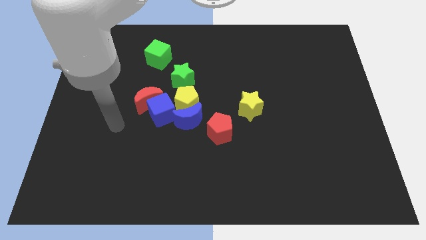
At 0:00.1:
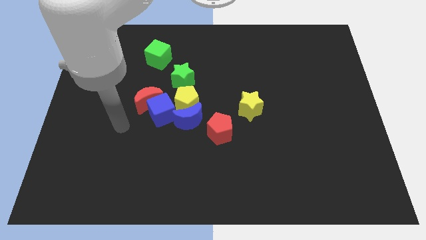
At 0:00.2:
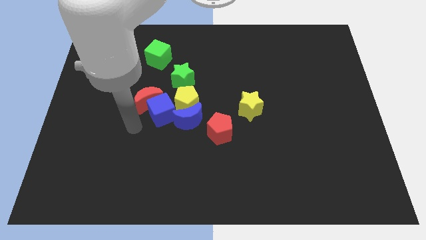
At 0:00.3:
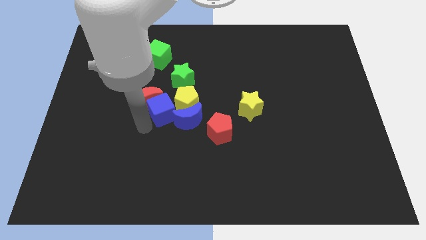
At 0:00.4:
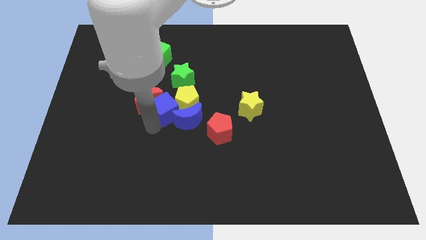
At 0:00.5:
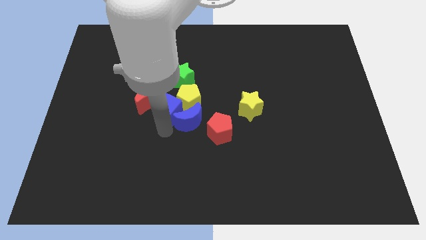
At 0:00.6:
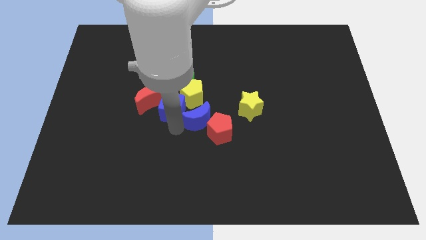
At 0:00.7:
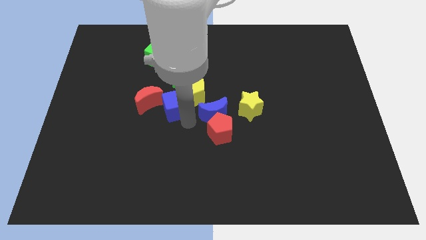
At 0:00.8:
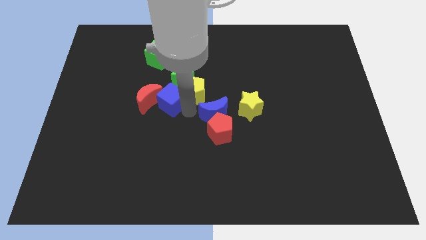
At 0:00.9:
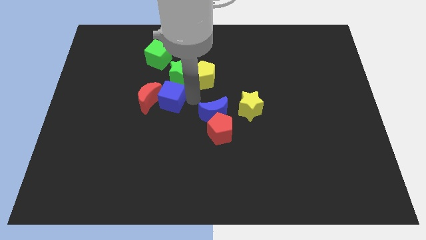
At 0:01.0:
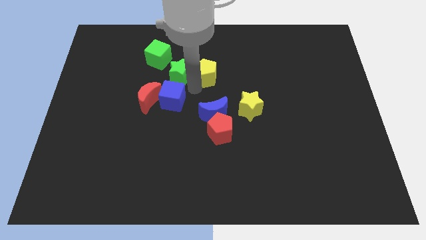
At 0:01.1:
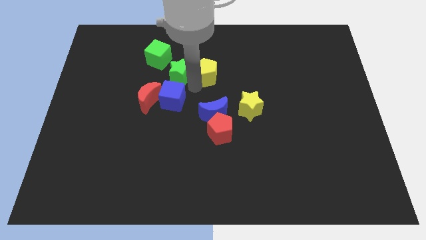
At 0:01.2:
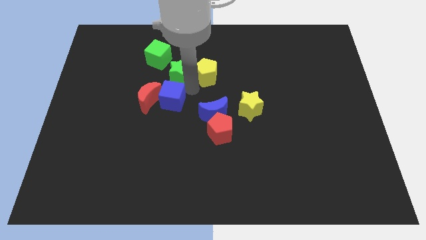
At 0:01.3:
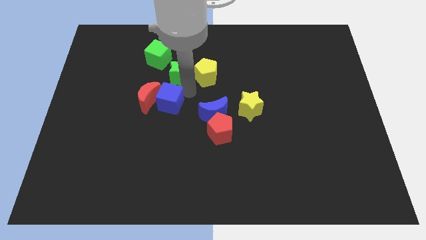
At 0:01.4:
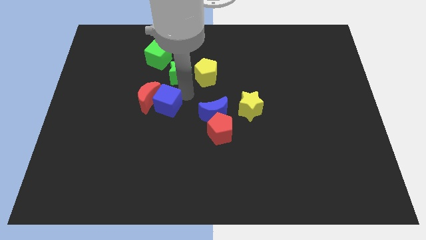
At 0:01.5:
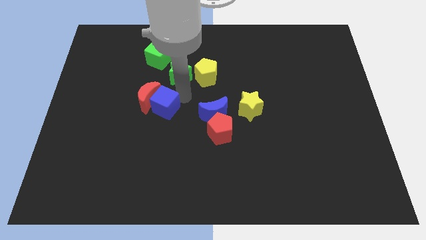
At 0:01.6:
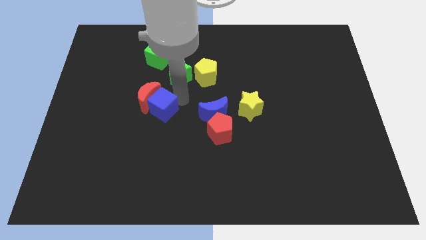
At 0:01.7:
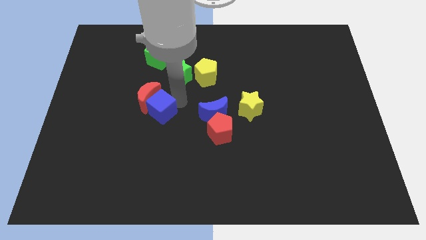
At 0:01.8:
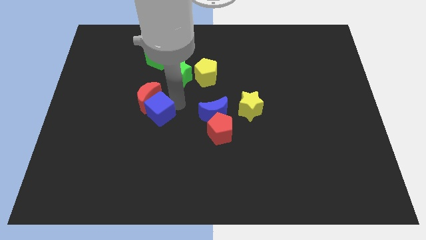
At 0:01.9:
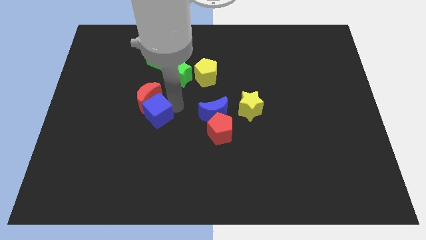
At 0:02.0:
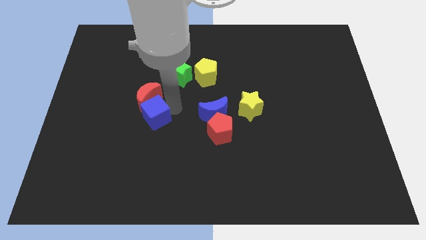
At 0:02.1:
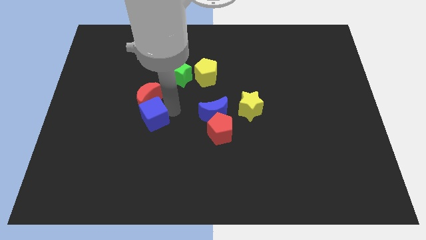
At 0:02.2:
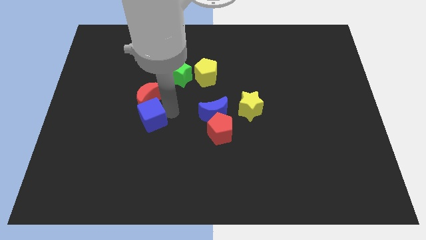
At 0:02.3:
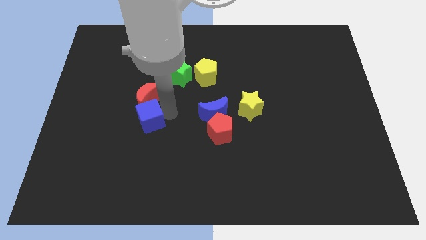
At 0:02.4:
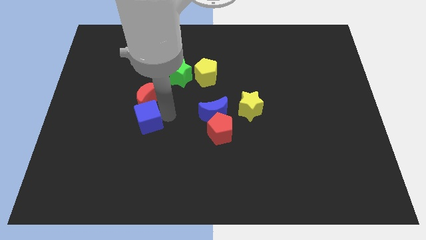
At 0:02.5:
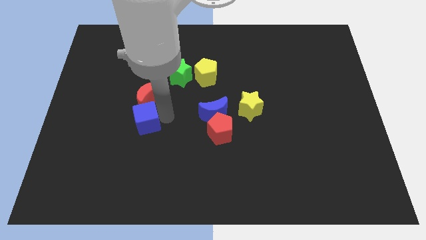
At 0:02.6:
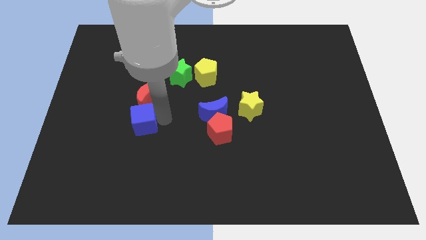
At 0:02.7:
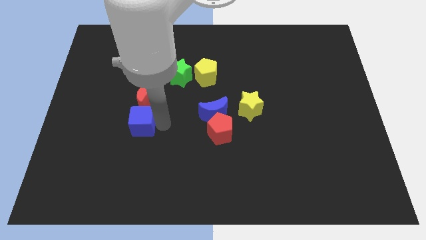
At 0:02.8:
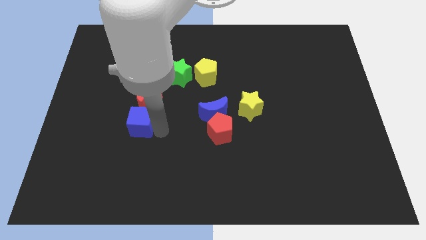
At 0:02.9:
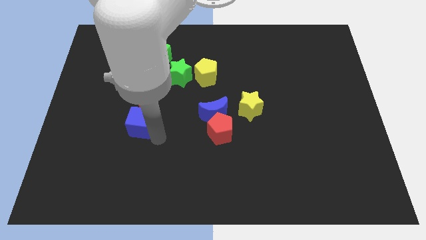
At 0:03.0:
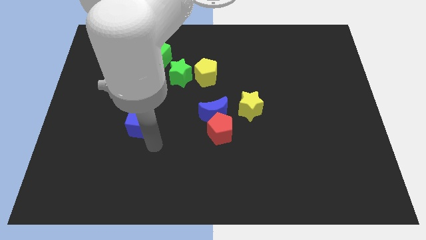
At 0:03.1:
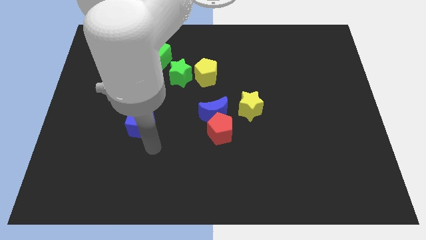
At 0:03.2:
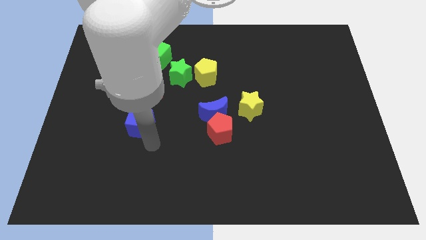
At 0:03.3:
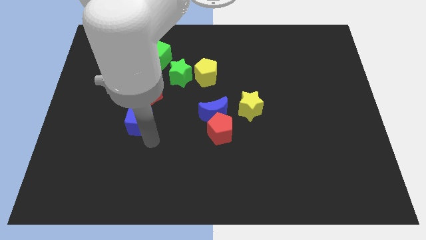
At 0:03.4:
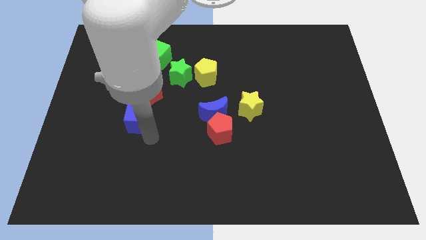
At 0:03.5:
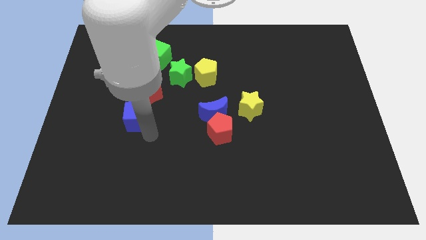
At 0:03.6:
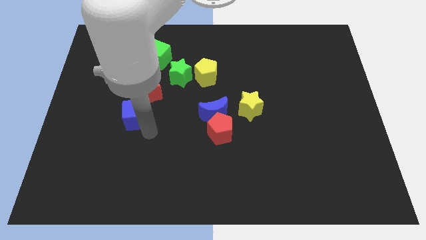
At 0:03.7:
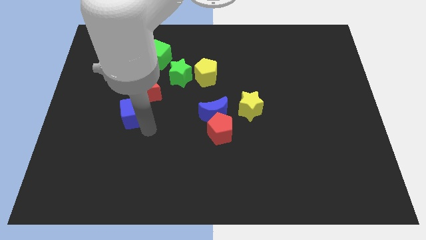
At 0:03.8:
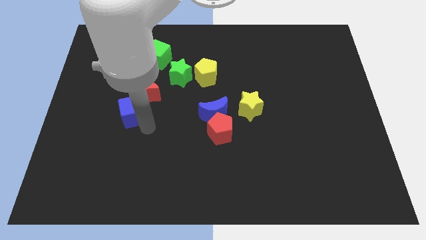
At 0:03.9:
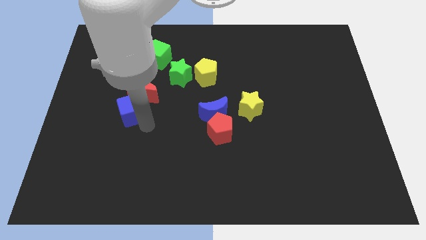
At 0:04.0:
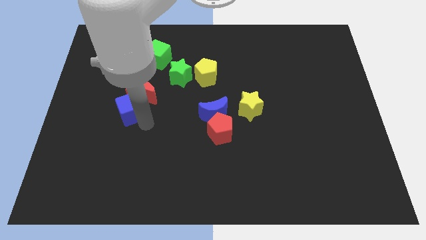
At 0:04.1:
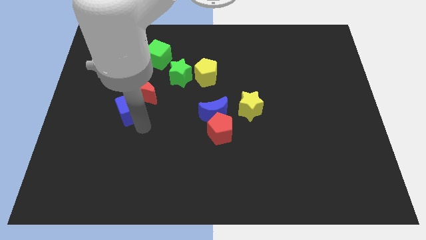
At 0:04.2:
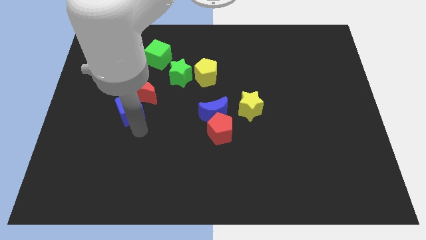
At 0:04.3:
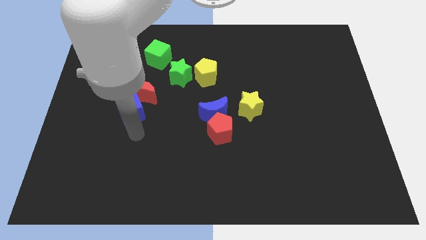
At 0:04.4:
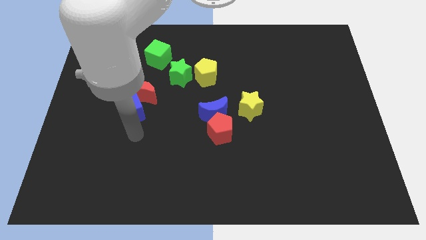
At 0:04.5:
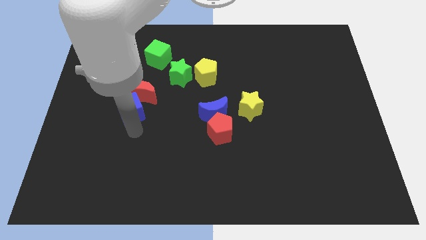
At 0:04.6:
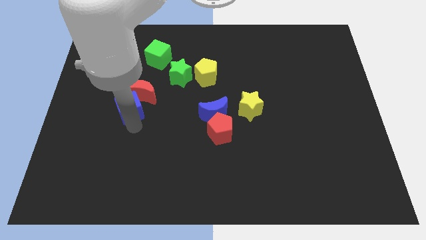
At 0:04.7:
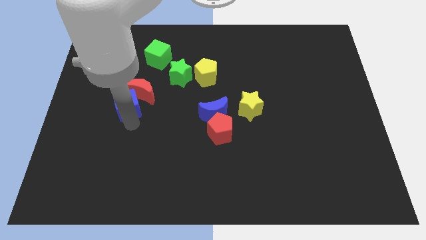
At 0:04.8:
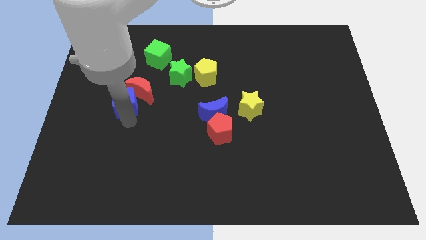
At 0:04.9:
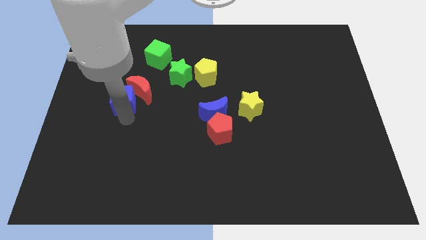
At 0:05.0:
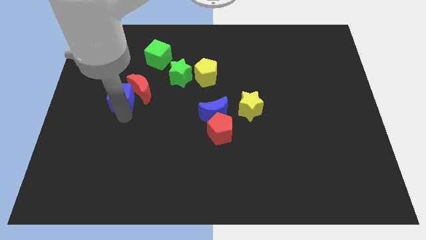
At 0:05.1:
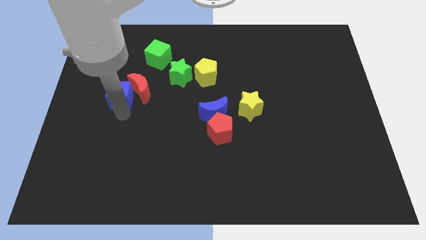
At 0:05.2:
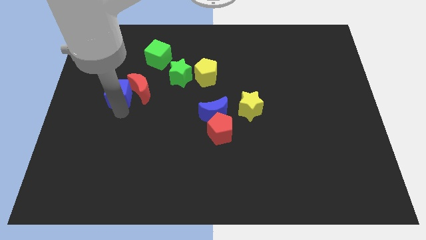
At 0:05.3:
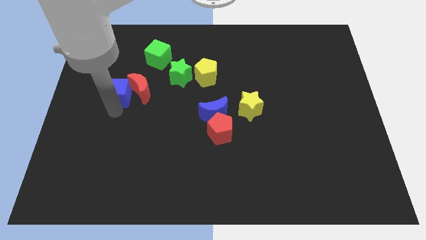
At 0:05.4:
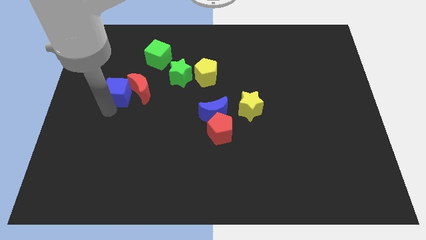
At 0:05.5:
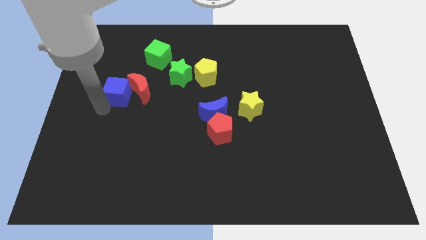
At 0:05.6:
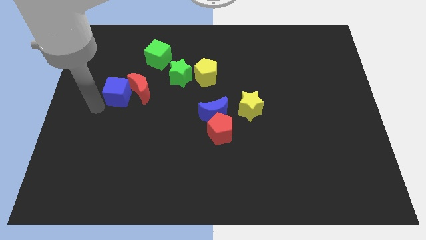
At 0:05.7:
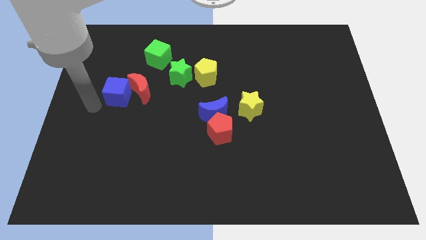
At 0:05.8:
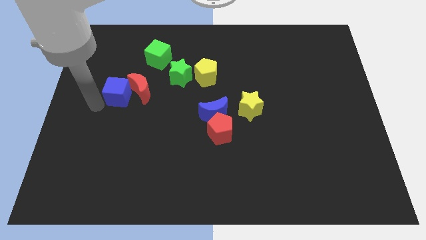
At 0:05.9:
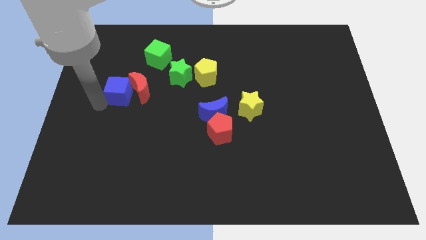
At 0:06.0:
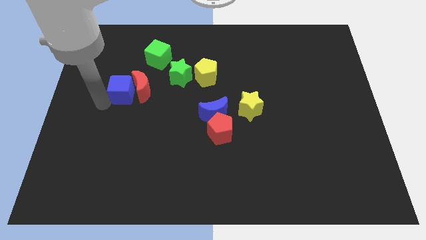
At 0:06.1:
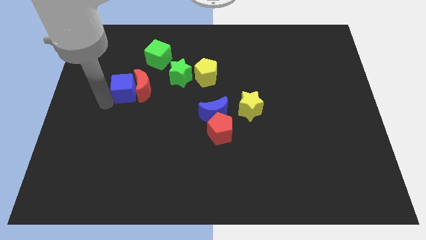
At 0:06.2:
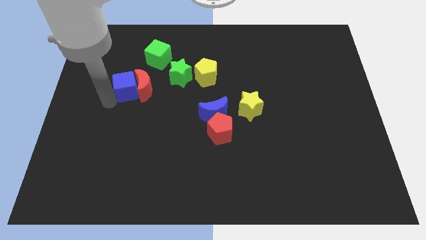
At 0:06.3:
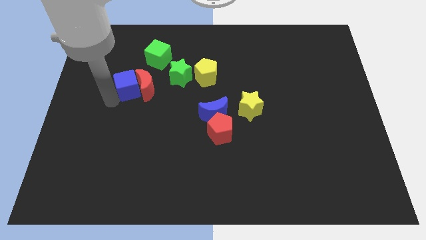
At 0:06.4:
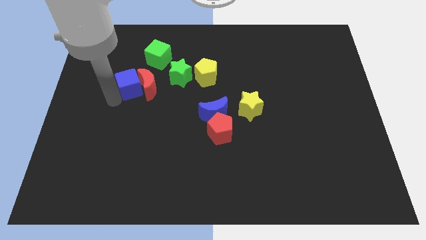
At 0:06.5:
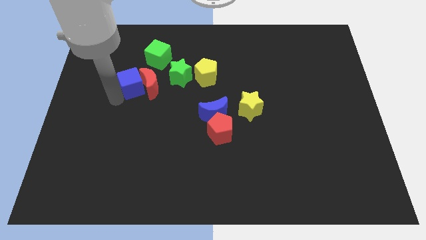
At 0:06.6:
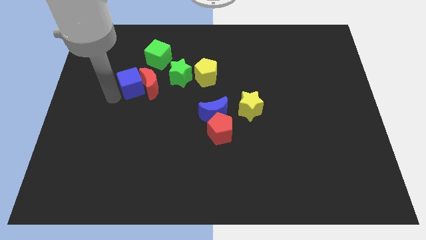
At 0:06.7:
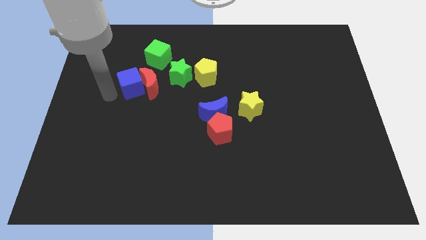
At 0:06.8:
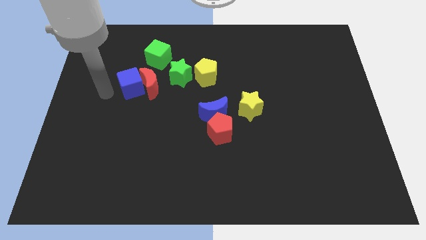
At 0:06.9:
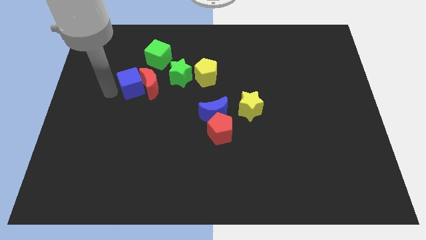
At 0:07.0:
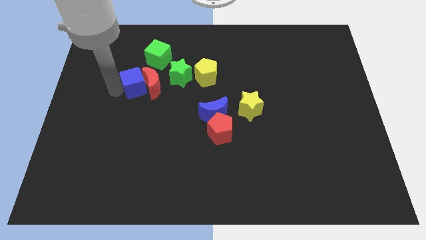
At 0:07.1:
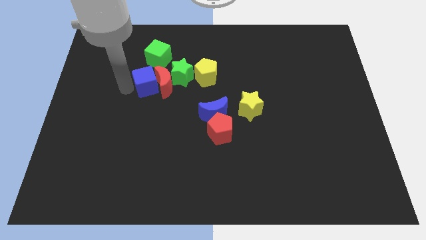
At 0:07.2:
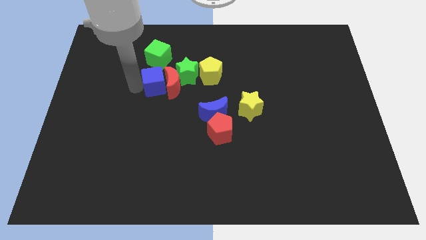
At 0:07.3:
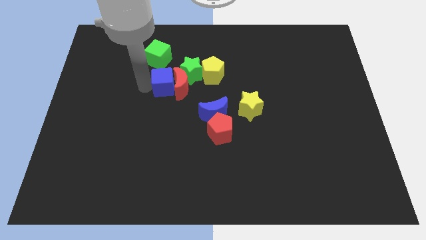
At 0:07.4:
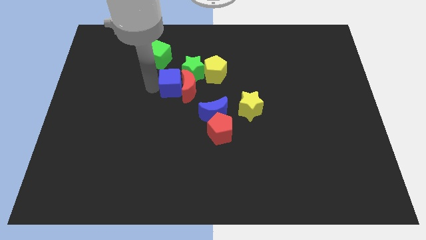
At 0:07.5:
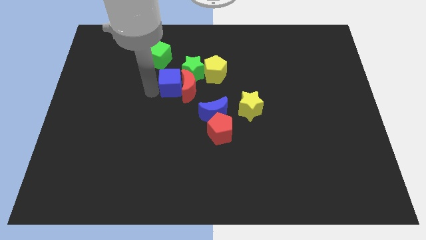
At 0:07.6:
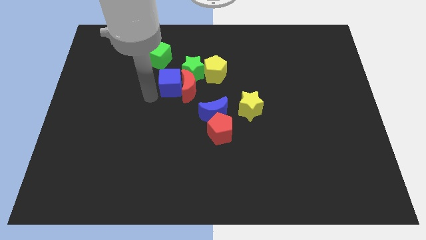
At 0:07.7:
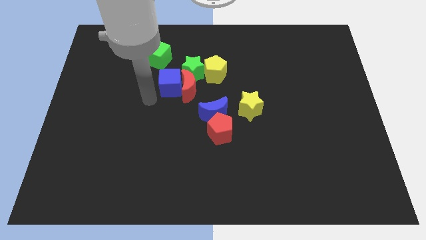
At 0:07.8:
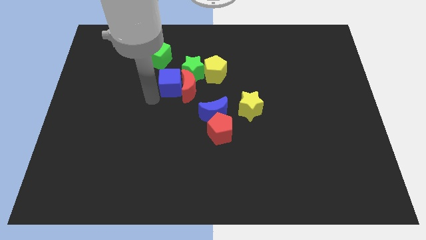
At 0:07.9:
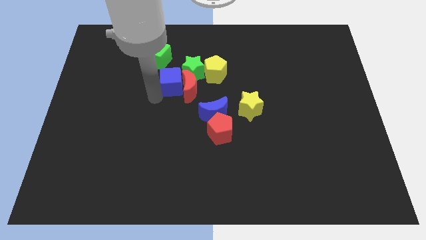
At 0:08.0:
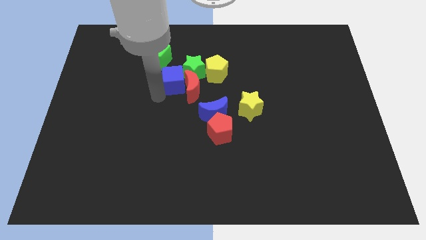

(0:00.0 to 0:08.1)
move the blue cube next to the green star
